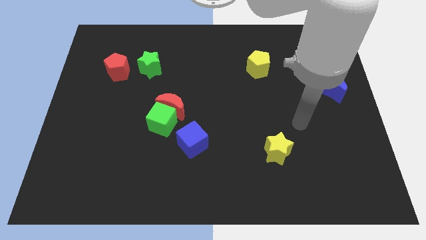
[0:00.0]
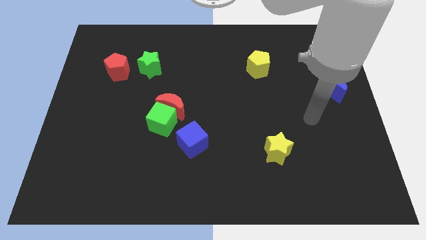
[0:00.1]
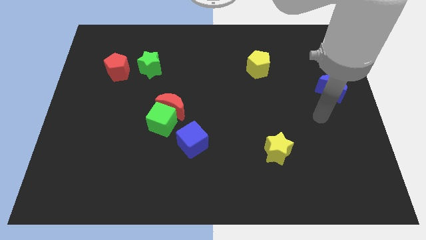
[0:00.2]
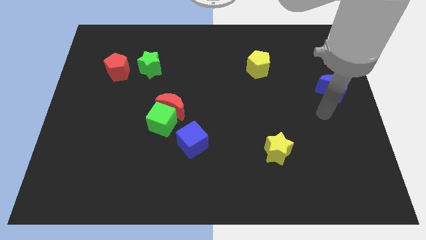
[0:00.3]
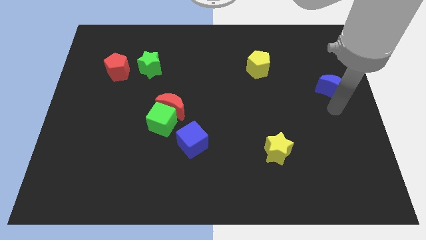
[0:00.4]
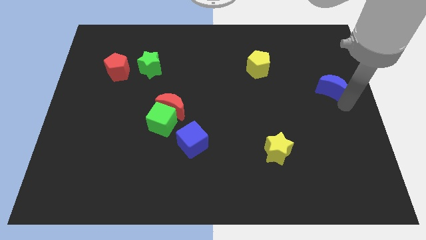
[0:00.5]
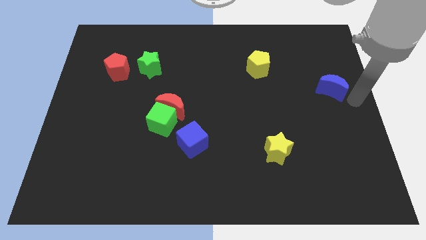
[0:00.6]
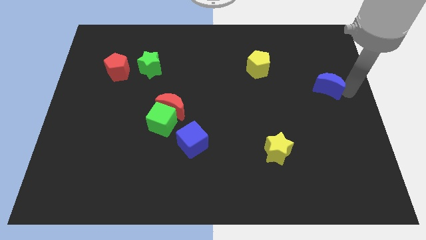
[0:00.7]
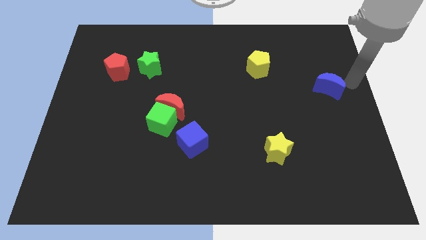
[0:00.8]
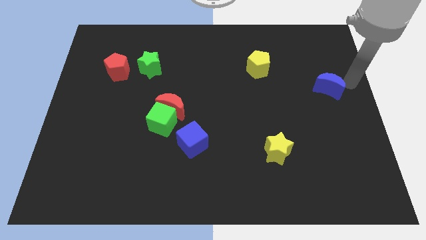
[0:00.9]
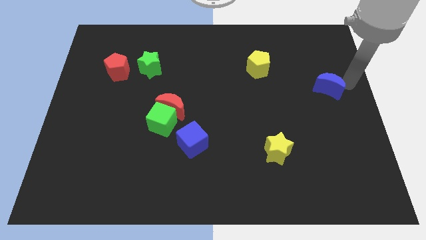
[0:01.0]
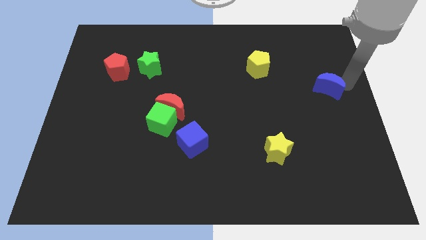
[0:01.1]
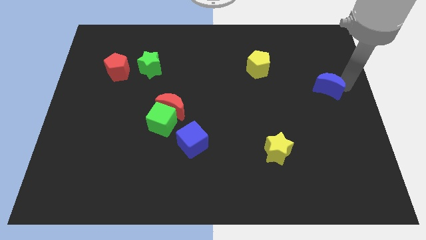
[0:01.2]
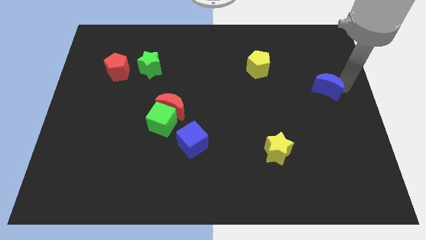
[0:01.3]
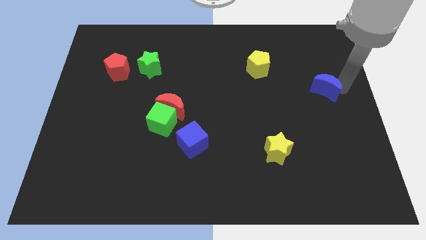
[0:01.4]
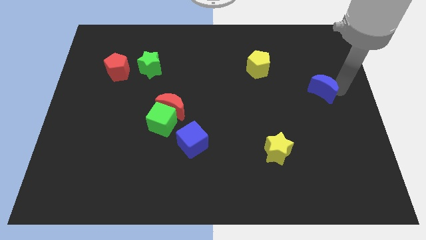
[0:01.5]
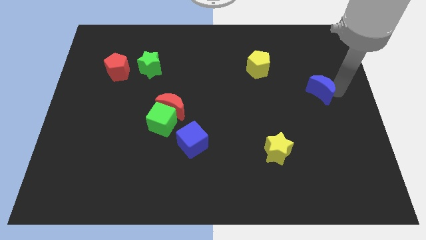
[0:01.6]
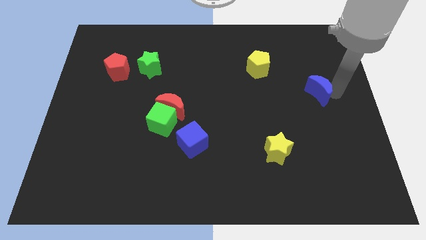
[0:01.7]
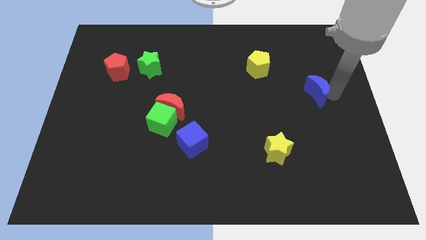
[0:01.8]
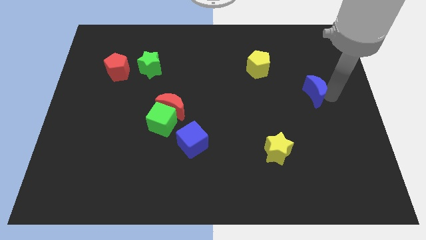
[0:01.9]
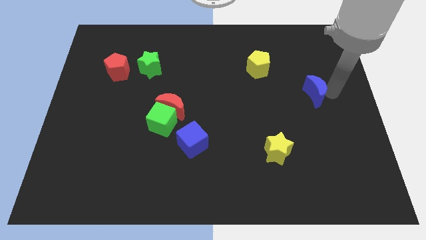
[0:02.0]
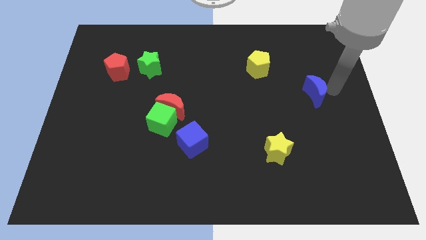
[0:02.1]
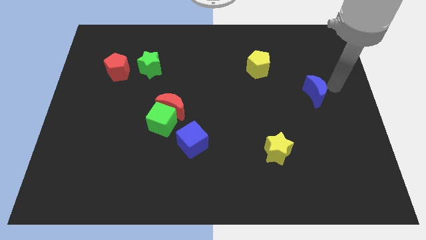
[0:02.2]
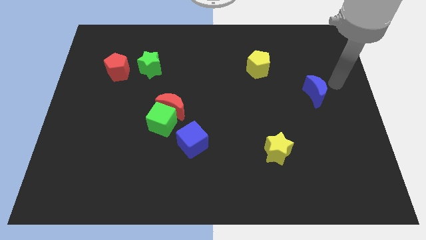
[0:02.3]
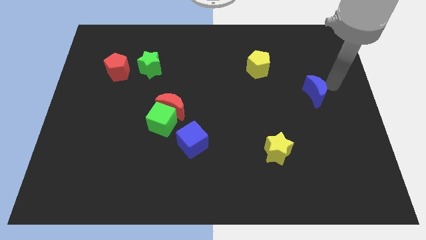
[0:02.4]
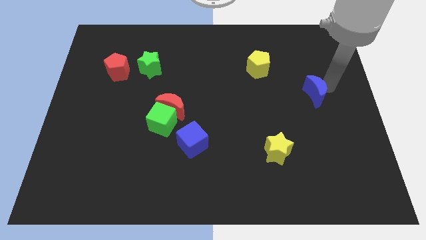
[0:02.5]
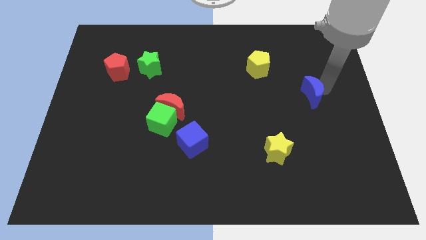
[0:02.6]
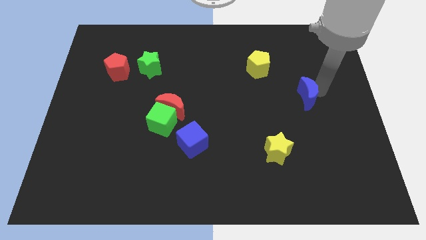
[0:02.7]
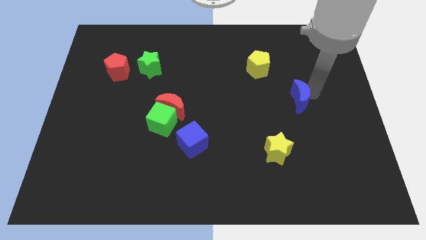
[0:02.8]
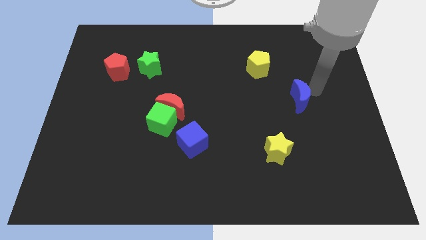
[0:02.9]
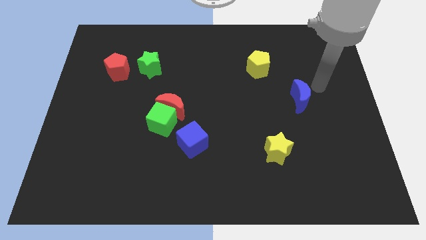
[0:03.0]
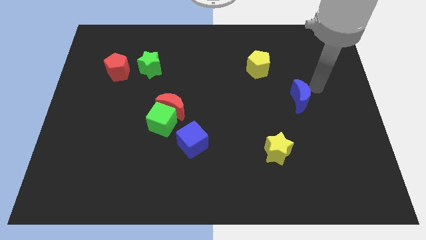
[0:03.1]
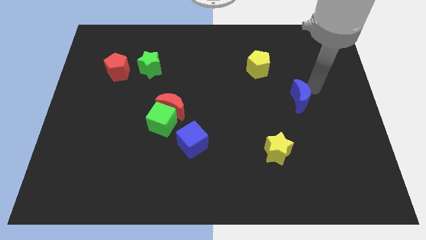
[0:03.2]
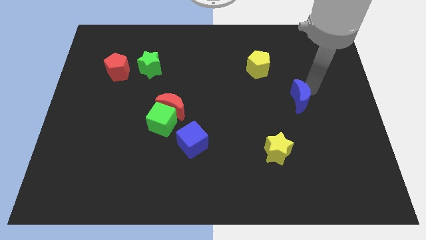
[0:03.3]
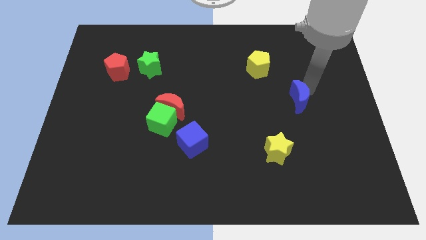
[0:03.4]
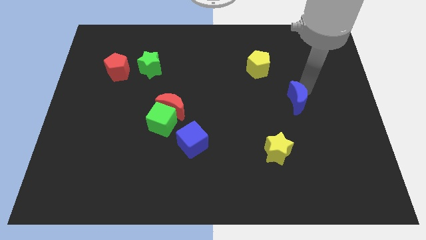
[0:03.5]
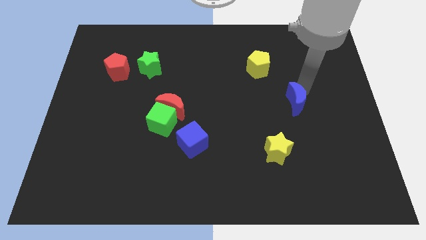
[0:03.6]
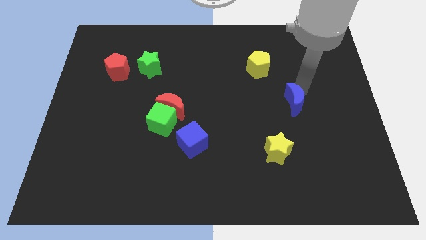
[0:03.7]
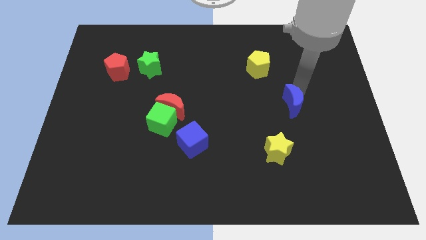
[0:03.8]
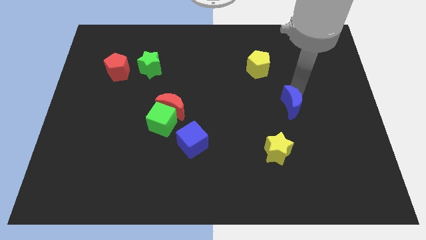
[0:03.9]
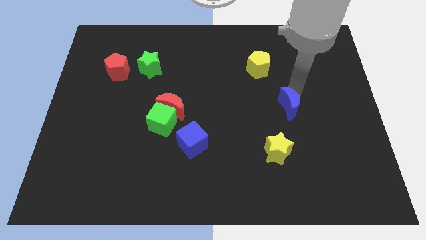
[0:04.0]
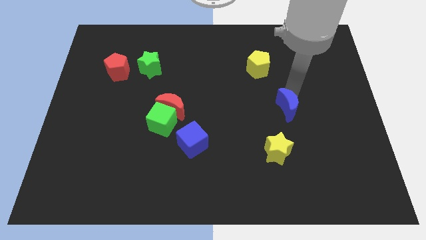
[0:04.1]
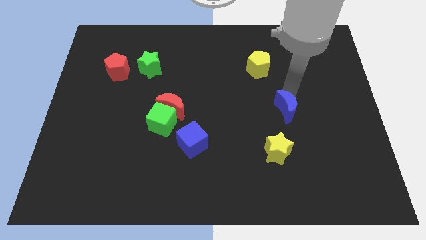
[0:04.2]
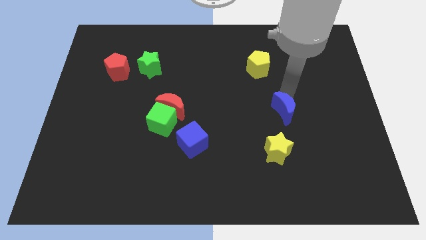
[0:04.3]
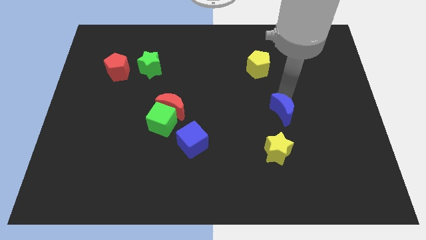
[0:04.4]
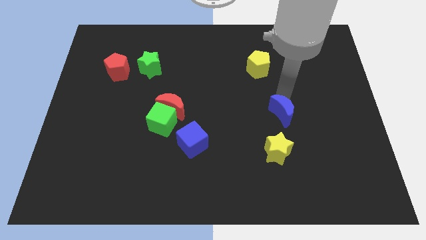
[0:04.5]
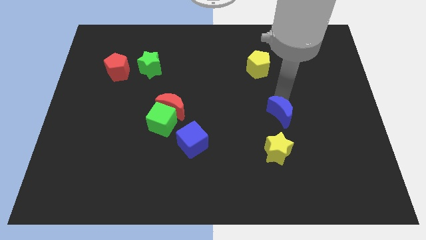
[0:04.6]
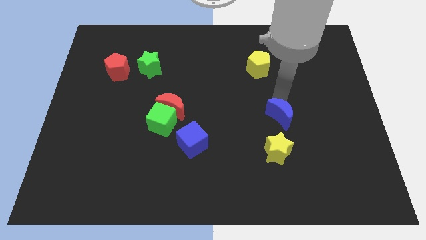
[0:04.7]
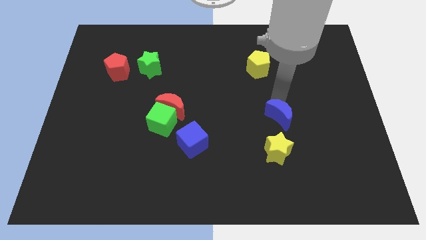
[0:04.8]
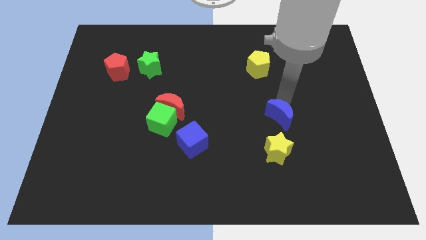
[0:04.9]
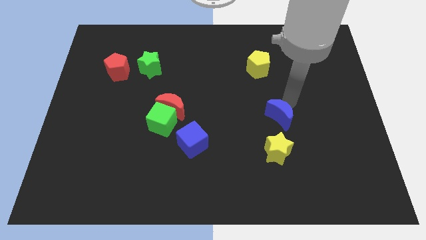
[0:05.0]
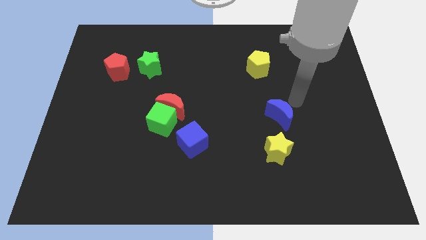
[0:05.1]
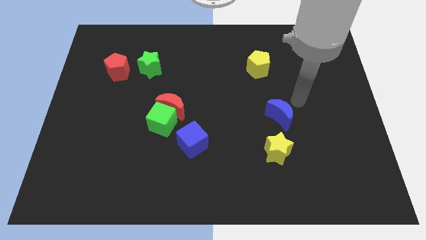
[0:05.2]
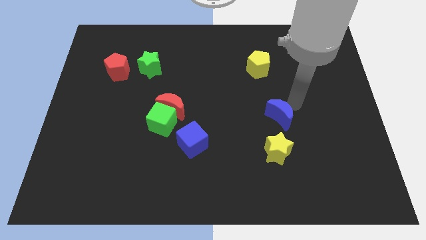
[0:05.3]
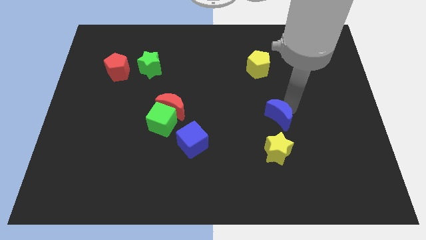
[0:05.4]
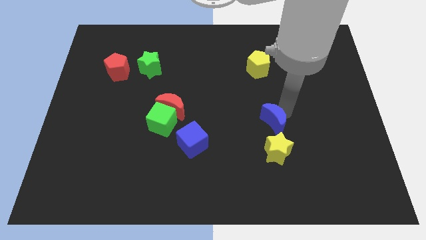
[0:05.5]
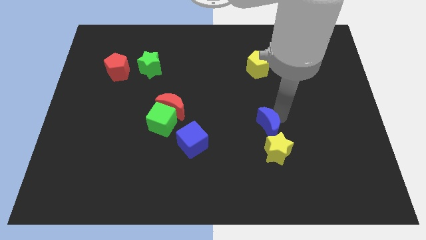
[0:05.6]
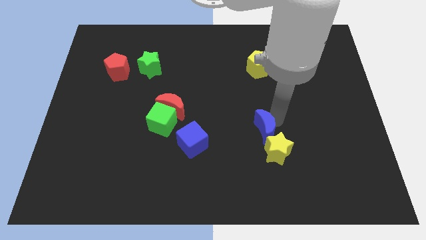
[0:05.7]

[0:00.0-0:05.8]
push the blue moon downwards and then to the left

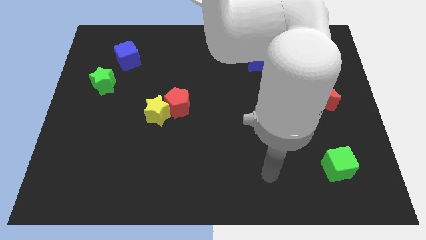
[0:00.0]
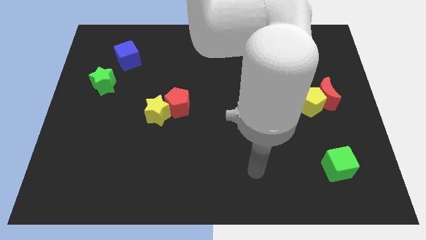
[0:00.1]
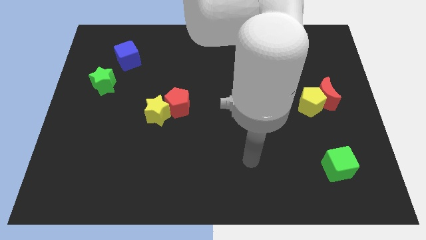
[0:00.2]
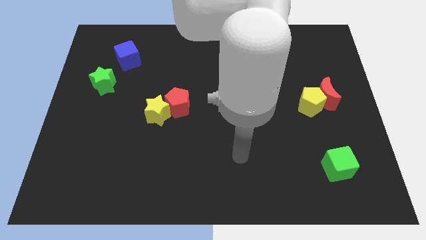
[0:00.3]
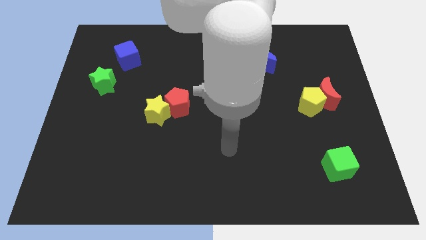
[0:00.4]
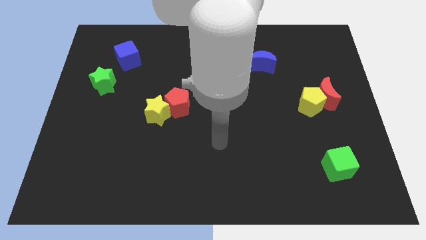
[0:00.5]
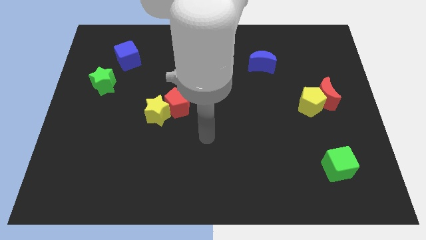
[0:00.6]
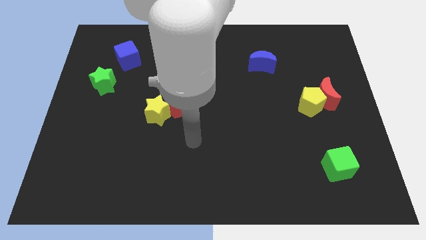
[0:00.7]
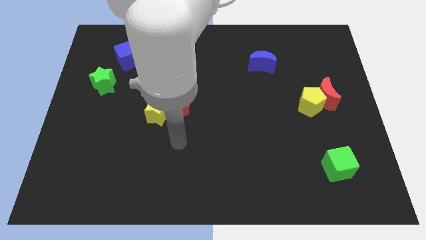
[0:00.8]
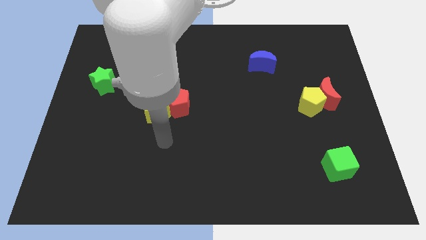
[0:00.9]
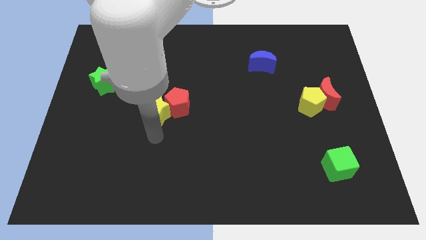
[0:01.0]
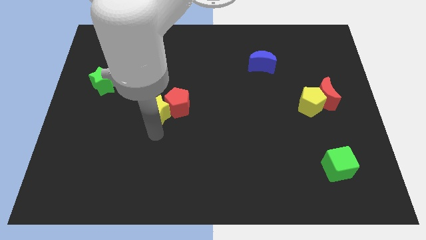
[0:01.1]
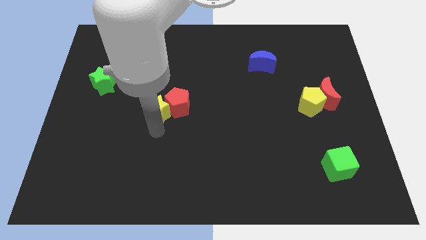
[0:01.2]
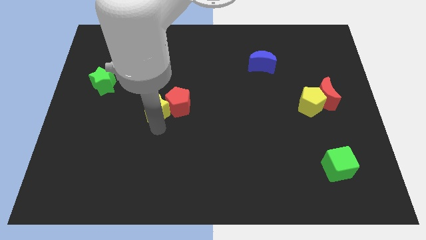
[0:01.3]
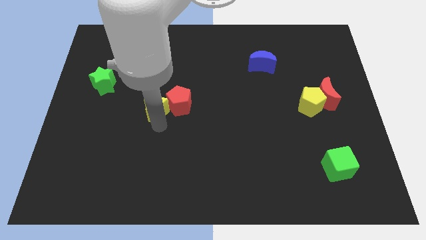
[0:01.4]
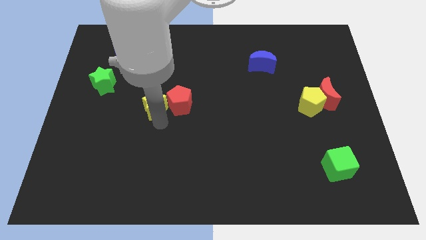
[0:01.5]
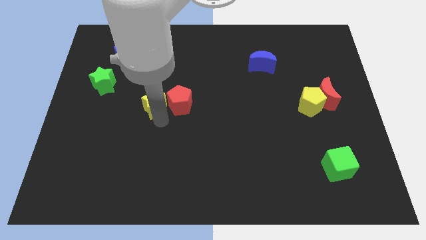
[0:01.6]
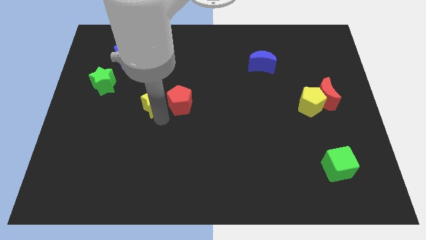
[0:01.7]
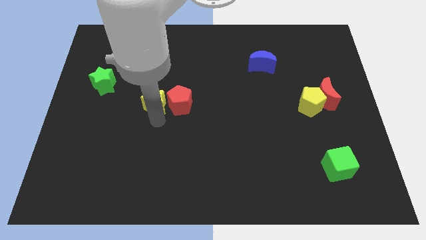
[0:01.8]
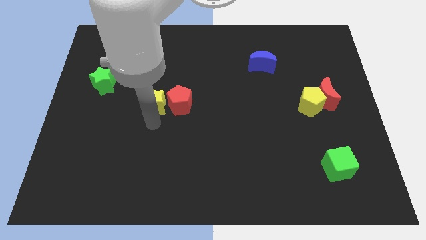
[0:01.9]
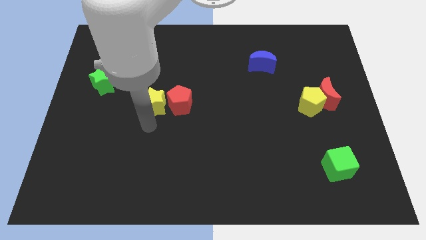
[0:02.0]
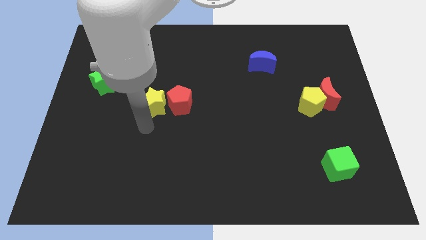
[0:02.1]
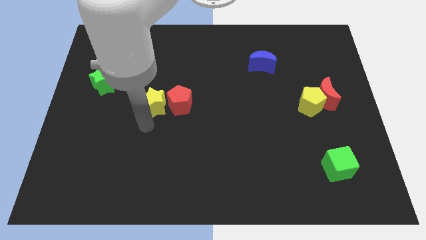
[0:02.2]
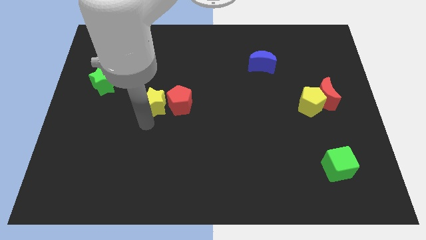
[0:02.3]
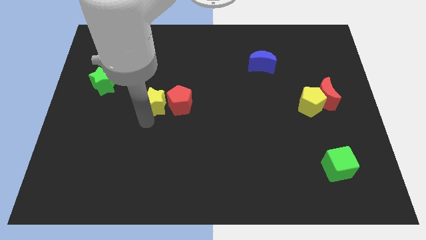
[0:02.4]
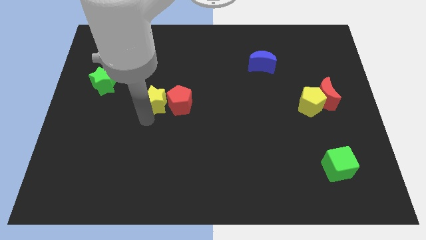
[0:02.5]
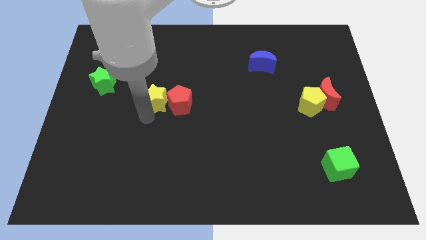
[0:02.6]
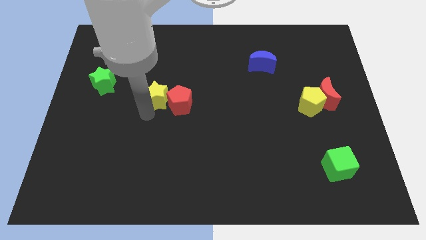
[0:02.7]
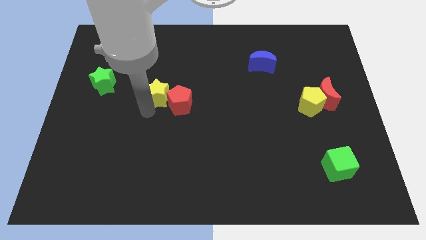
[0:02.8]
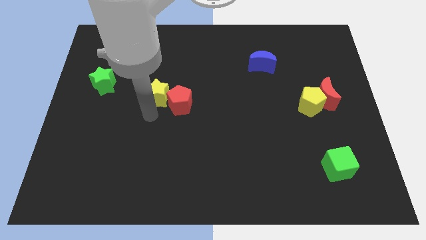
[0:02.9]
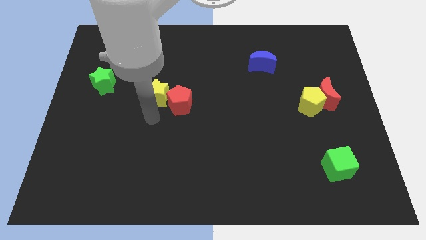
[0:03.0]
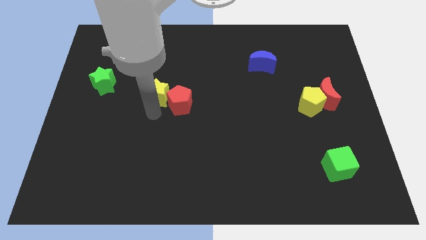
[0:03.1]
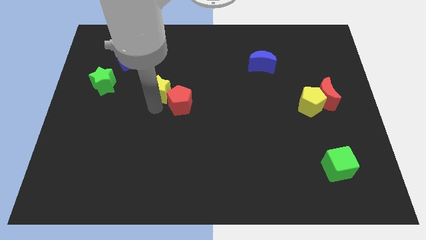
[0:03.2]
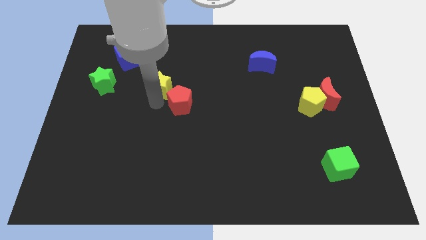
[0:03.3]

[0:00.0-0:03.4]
slightly push the yellow star up
